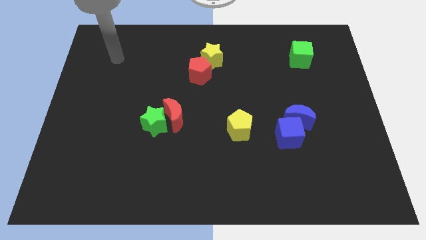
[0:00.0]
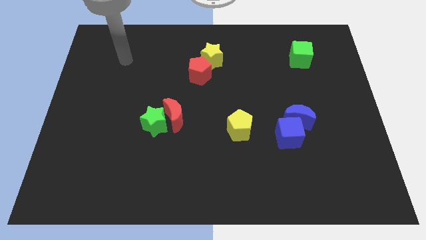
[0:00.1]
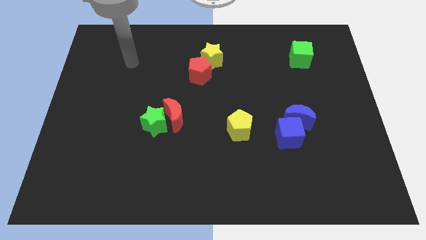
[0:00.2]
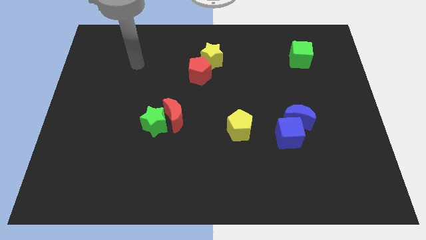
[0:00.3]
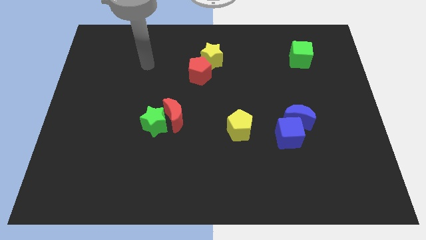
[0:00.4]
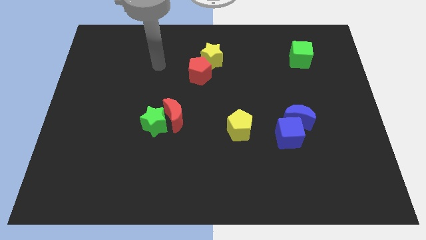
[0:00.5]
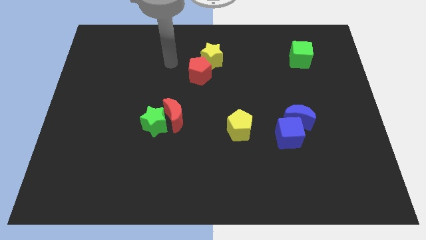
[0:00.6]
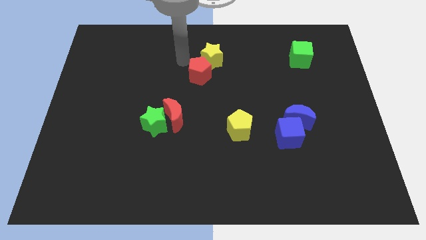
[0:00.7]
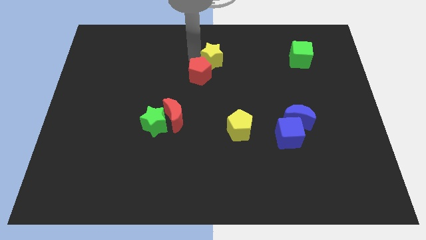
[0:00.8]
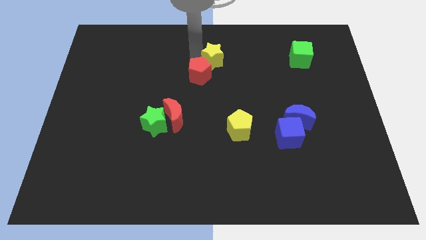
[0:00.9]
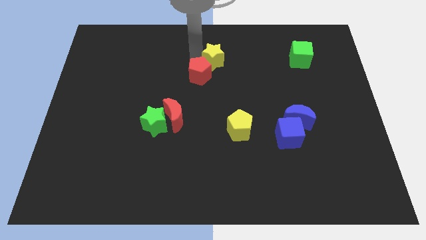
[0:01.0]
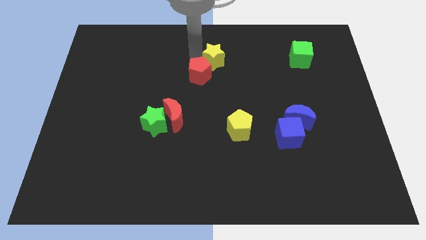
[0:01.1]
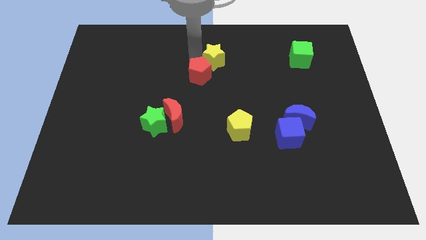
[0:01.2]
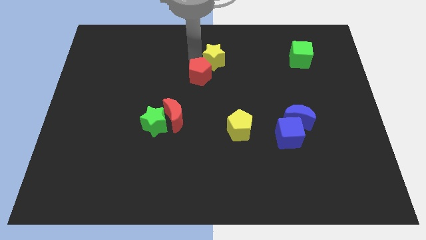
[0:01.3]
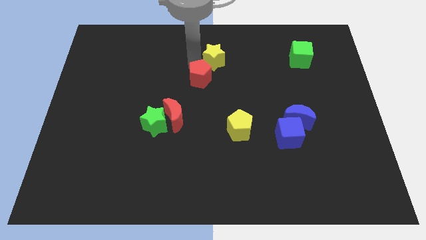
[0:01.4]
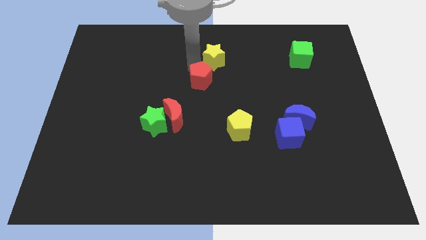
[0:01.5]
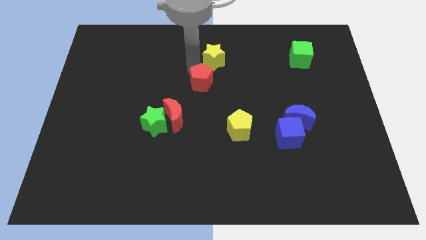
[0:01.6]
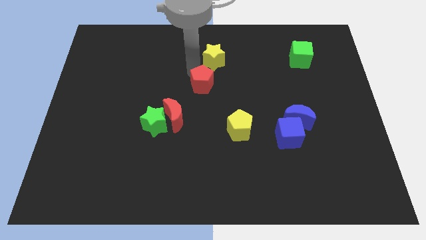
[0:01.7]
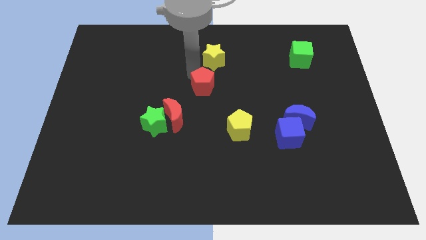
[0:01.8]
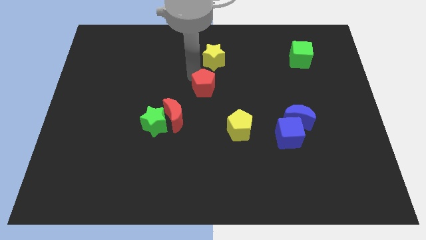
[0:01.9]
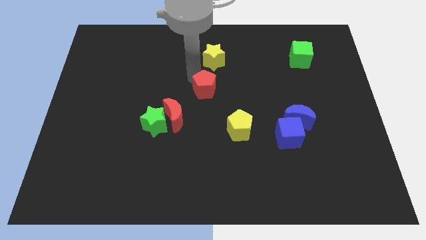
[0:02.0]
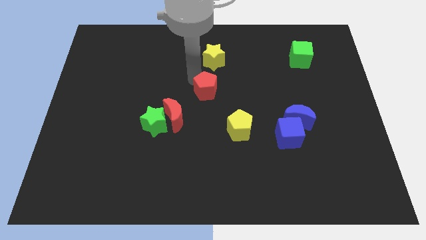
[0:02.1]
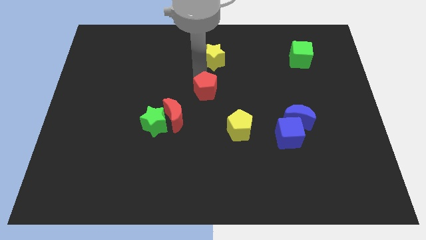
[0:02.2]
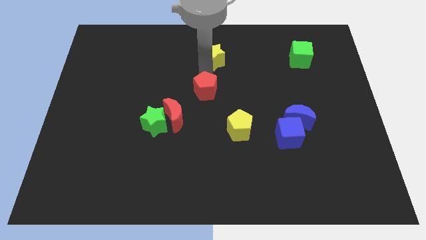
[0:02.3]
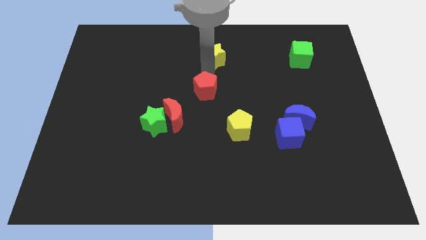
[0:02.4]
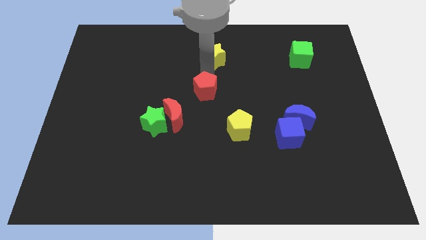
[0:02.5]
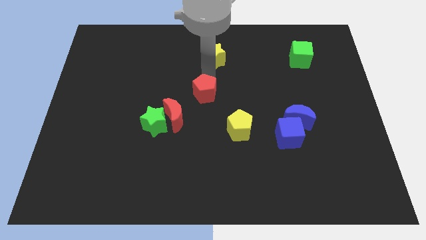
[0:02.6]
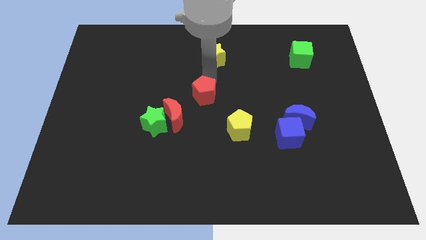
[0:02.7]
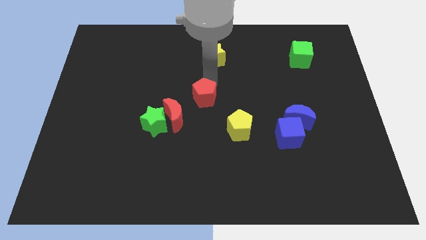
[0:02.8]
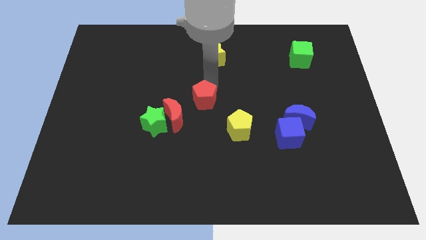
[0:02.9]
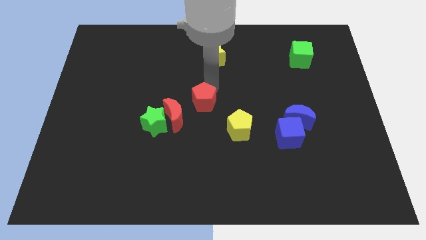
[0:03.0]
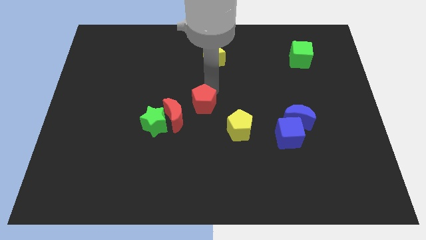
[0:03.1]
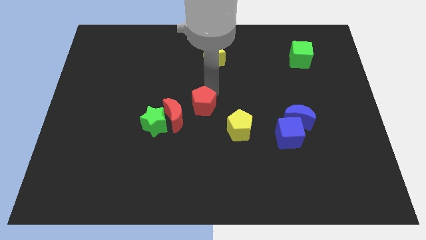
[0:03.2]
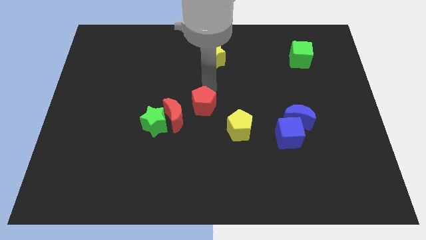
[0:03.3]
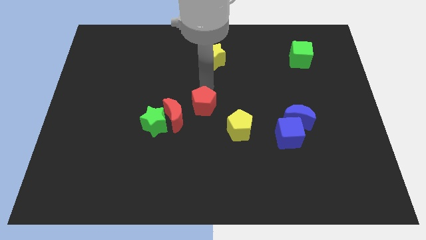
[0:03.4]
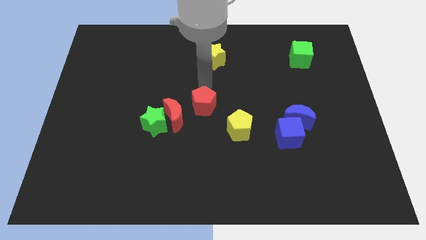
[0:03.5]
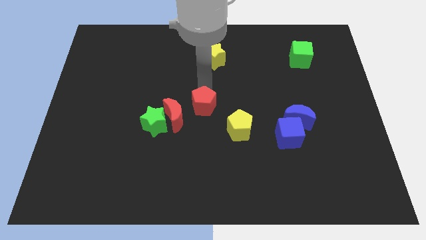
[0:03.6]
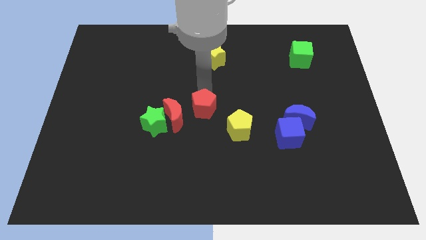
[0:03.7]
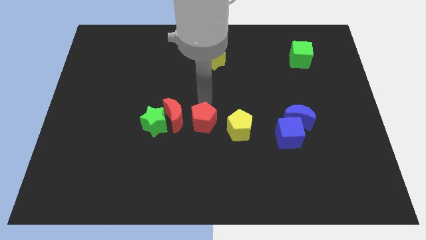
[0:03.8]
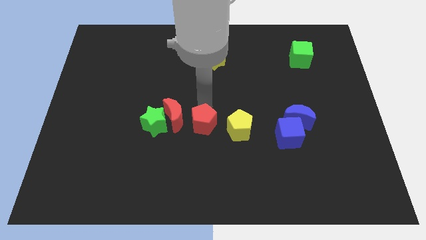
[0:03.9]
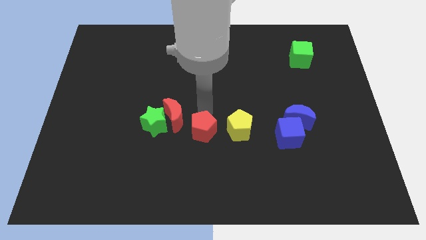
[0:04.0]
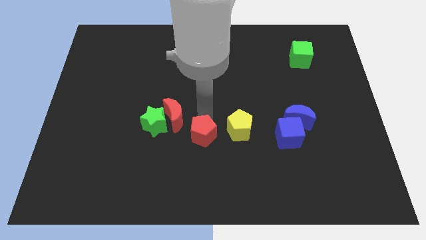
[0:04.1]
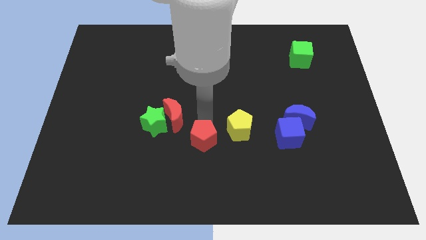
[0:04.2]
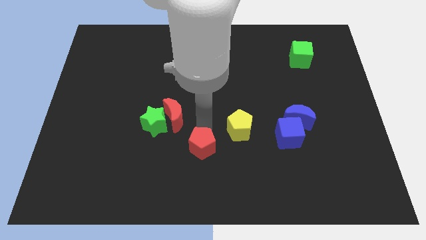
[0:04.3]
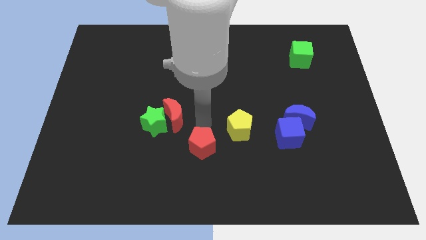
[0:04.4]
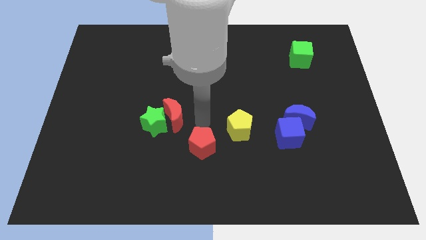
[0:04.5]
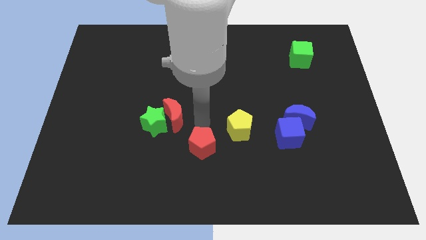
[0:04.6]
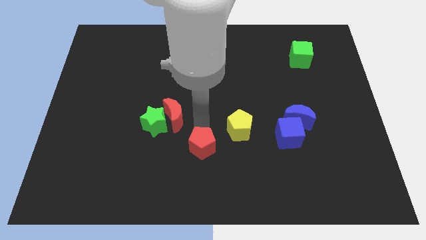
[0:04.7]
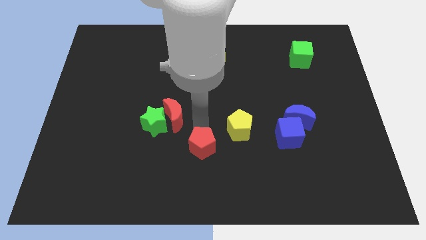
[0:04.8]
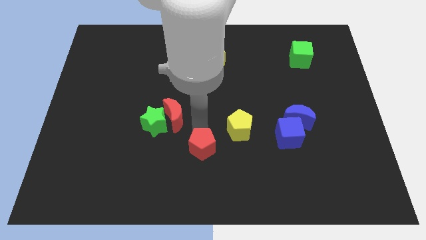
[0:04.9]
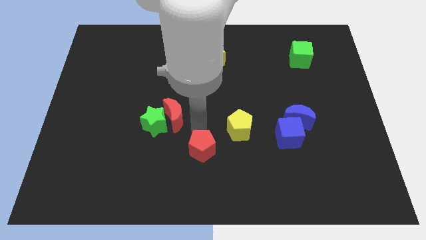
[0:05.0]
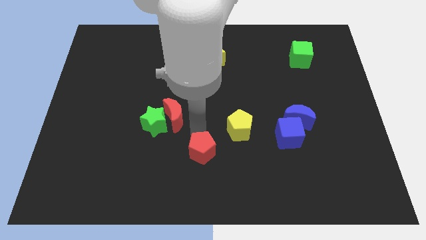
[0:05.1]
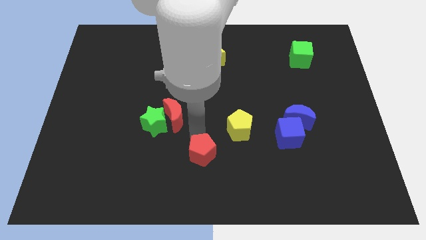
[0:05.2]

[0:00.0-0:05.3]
slide the red pentagon to the bottom side

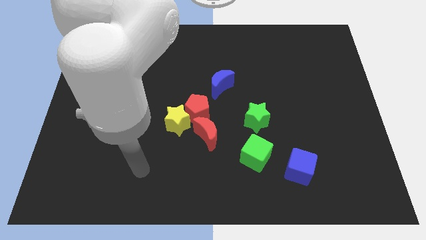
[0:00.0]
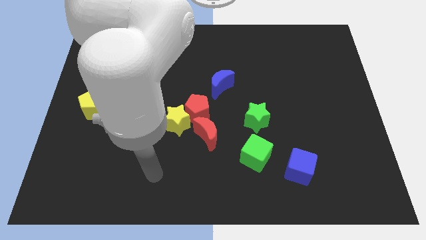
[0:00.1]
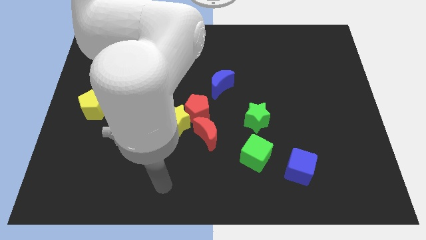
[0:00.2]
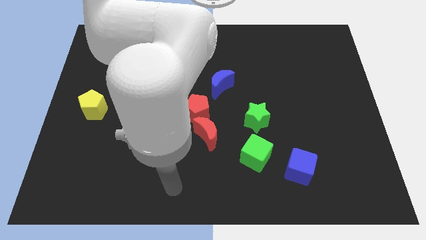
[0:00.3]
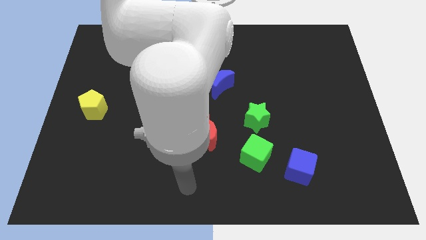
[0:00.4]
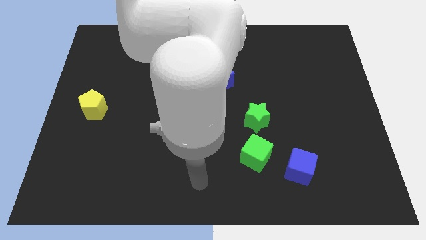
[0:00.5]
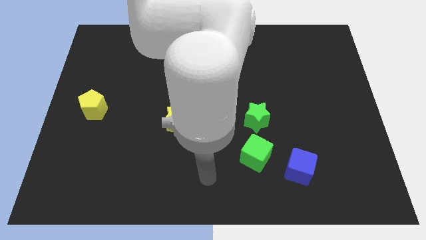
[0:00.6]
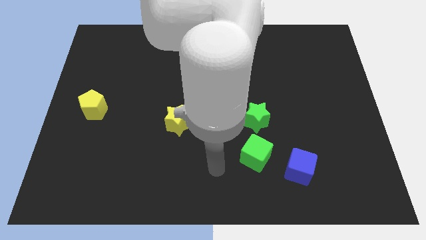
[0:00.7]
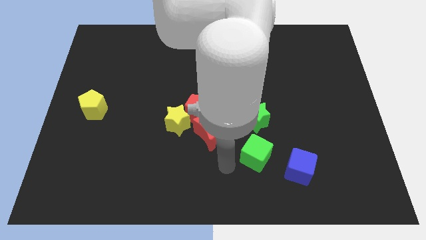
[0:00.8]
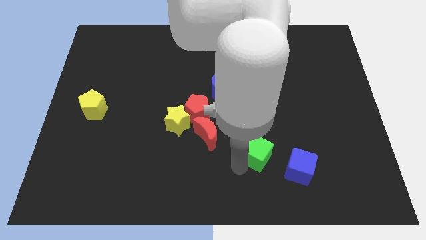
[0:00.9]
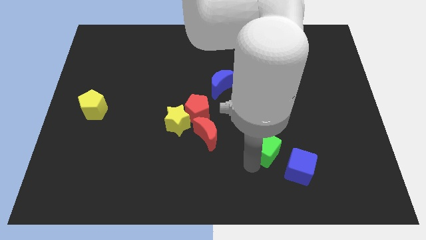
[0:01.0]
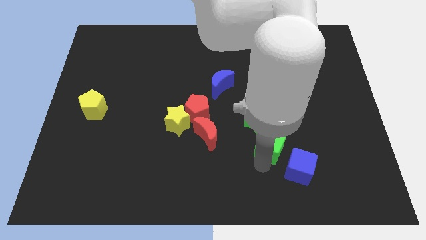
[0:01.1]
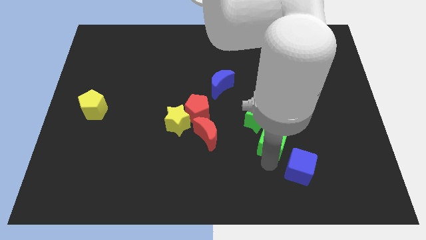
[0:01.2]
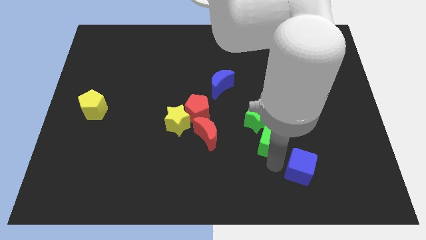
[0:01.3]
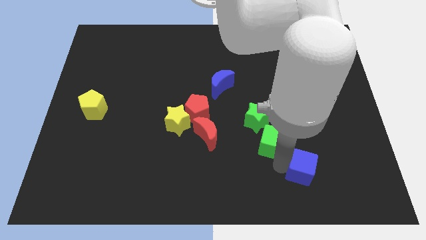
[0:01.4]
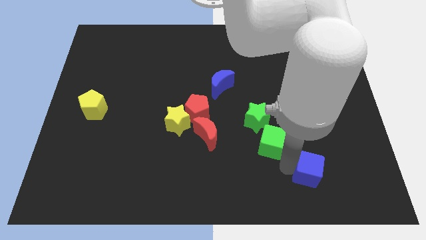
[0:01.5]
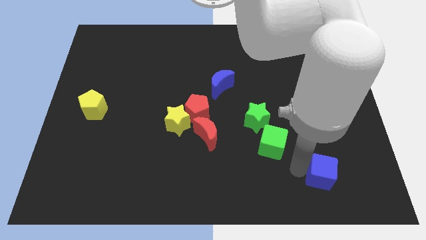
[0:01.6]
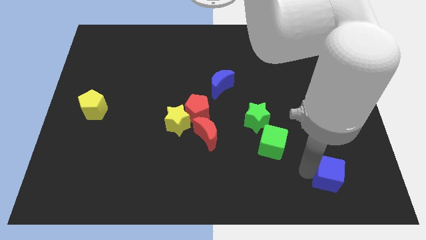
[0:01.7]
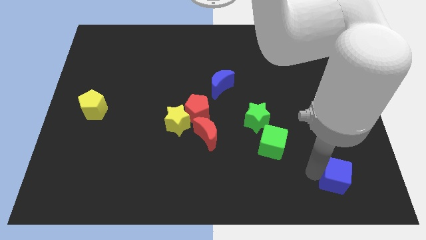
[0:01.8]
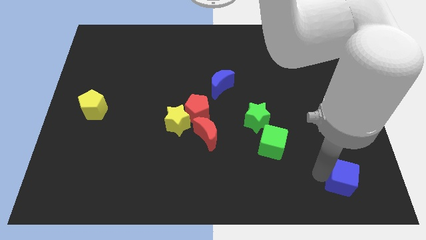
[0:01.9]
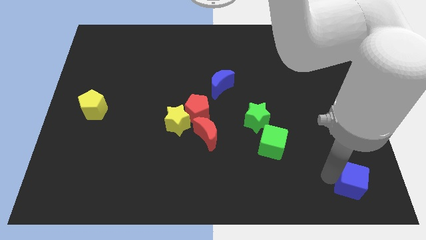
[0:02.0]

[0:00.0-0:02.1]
slide the blue cube to the lower right corner
